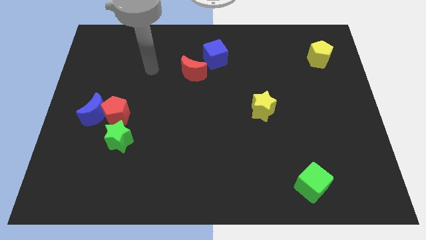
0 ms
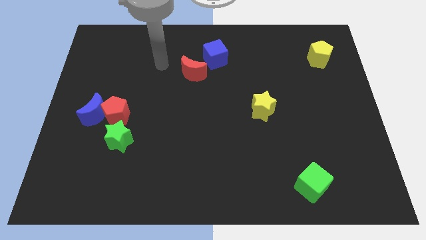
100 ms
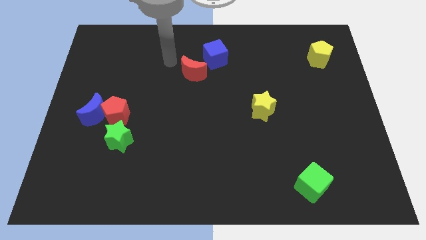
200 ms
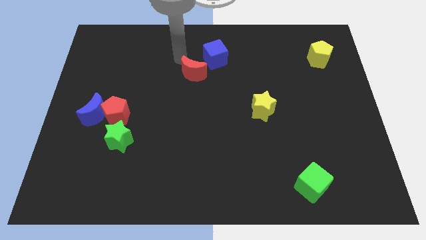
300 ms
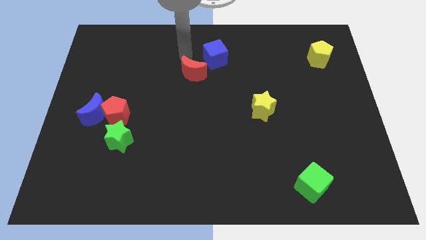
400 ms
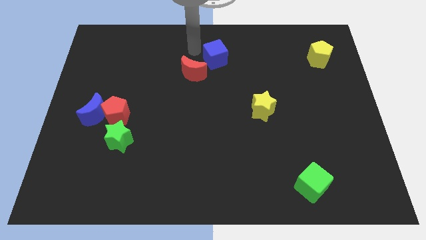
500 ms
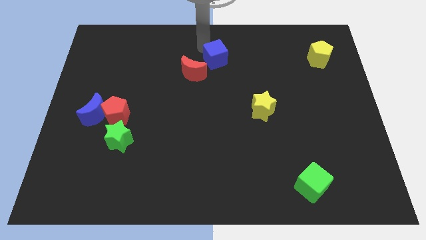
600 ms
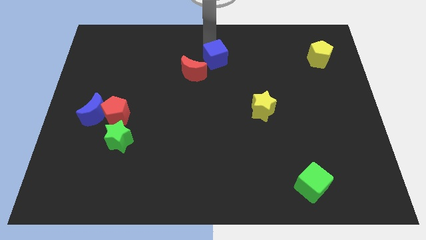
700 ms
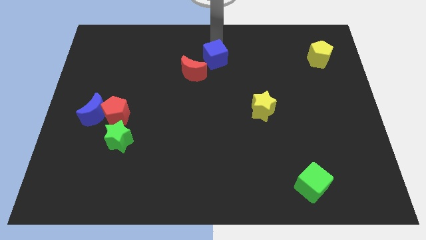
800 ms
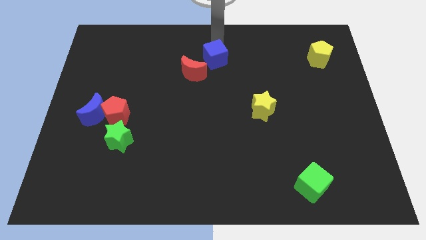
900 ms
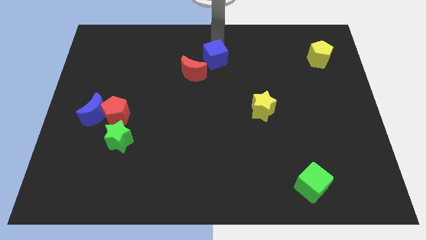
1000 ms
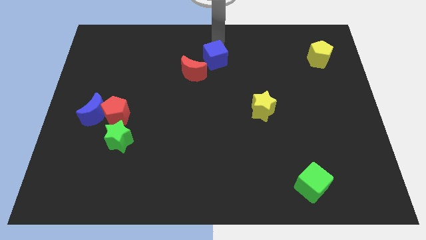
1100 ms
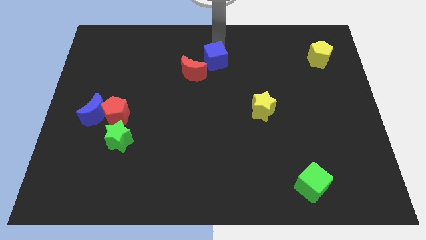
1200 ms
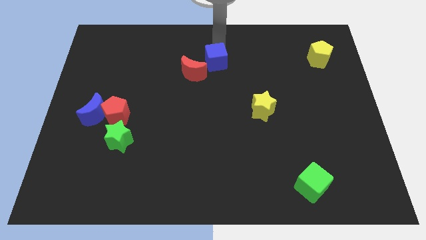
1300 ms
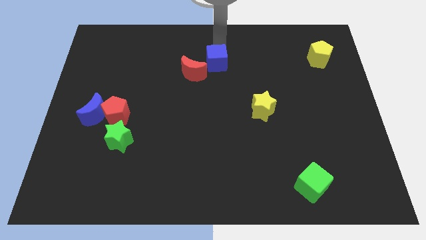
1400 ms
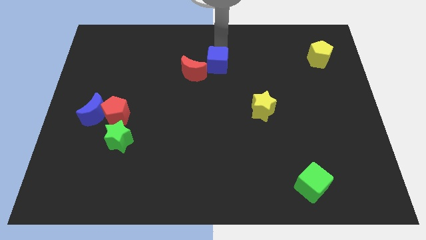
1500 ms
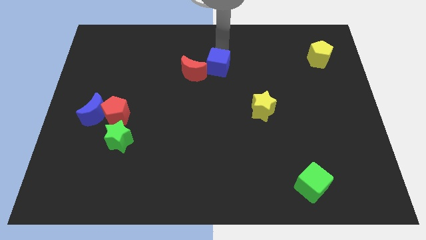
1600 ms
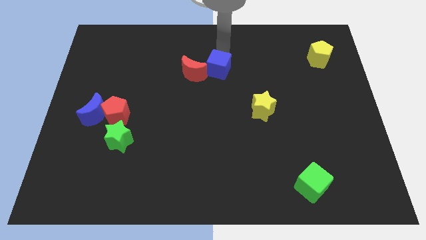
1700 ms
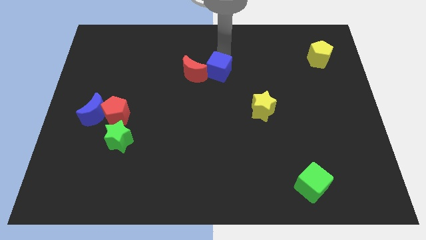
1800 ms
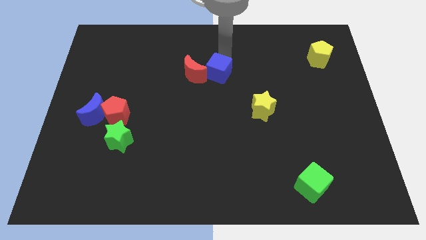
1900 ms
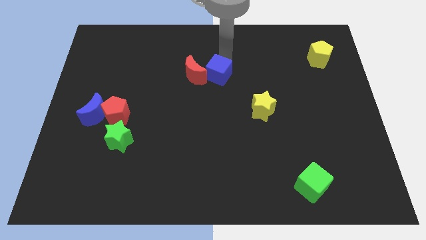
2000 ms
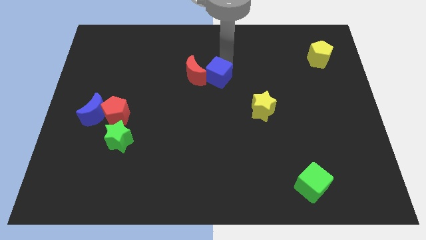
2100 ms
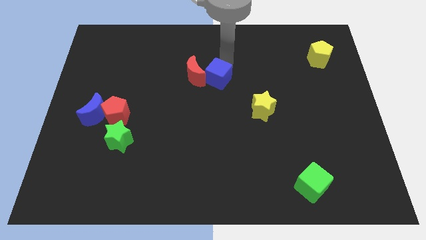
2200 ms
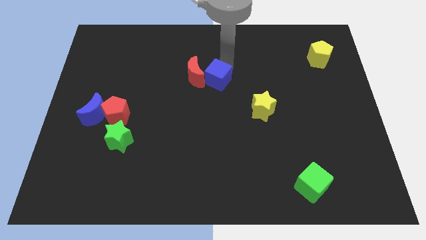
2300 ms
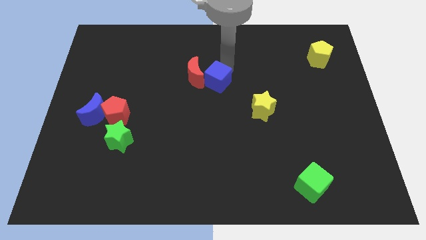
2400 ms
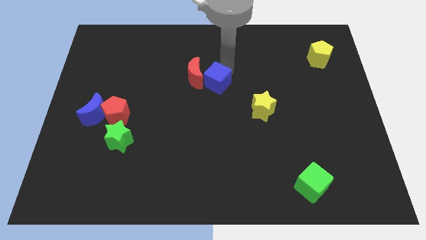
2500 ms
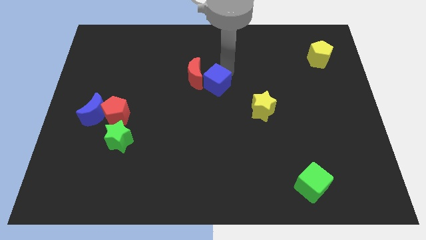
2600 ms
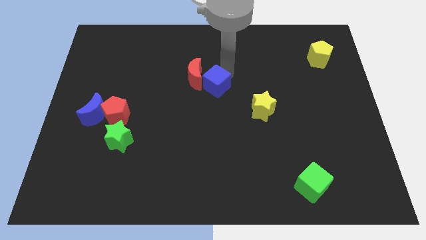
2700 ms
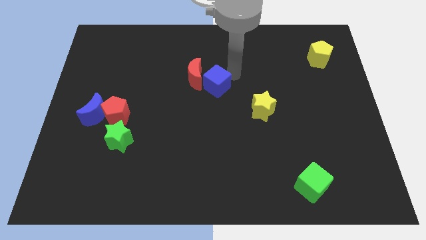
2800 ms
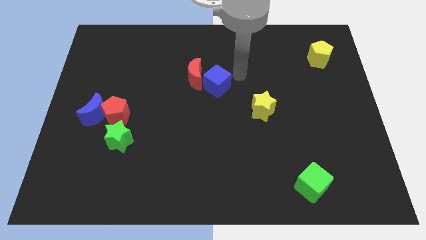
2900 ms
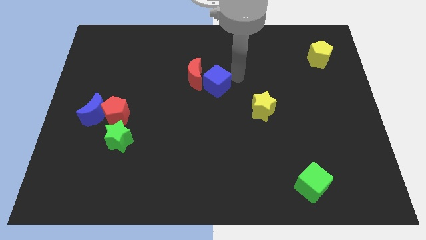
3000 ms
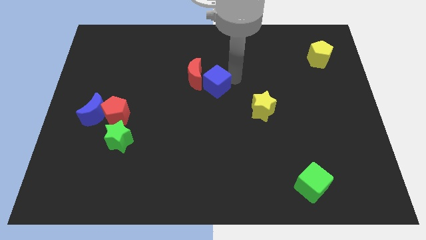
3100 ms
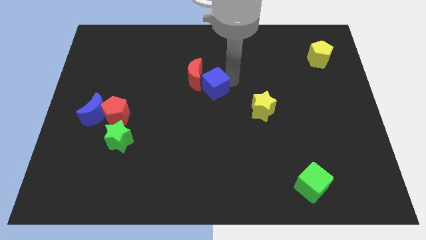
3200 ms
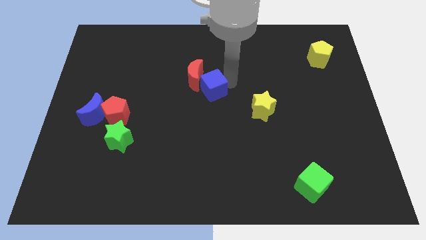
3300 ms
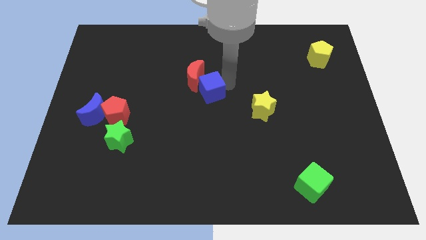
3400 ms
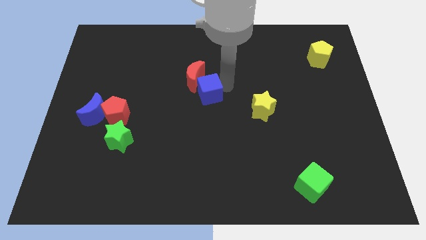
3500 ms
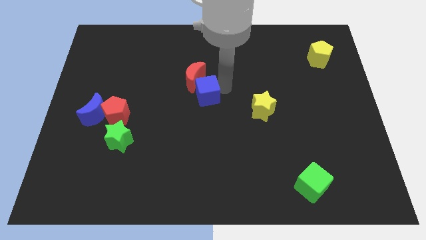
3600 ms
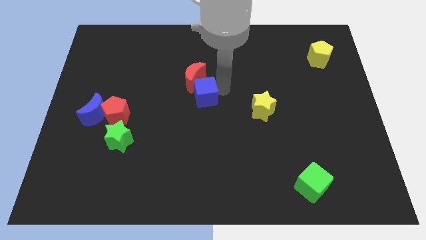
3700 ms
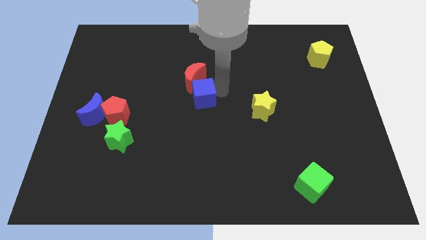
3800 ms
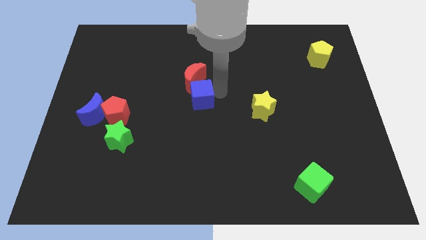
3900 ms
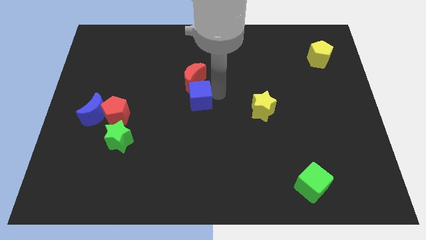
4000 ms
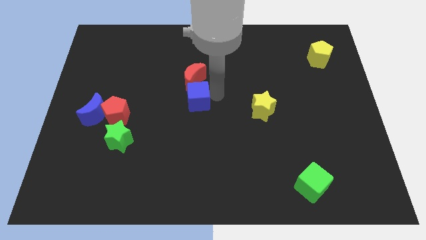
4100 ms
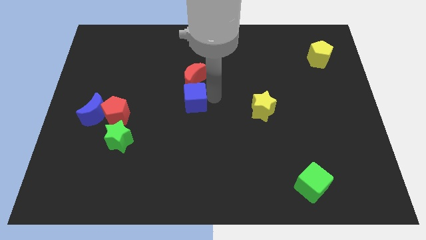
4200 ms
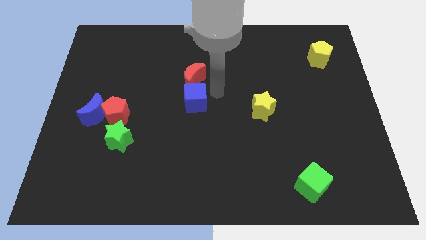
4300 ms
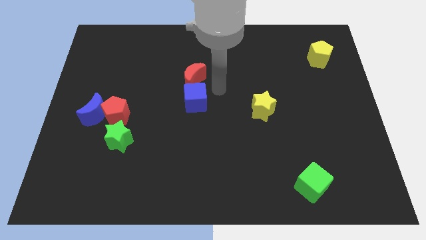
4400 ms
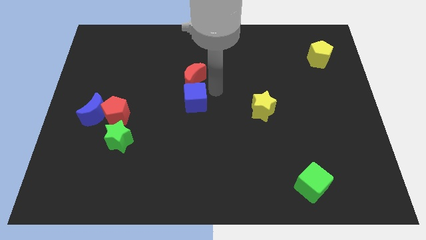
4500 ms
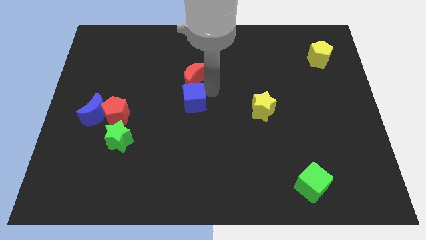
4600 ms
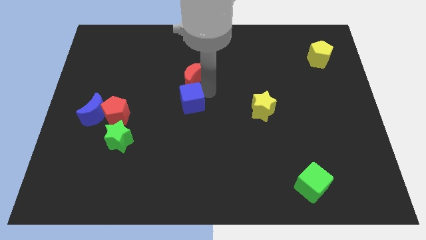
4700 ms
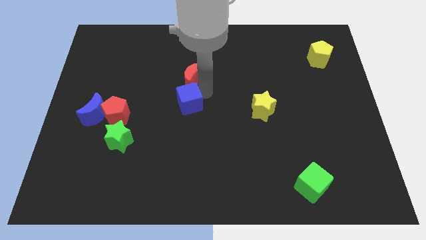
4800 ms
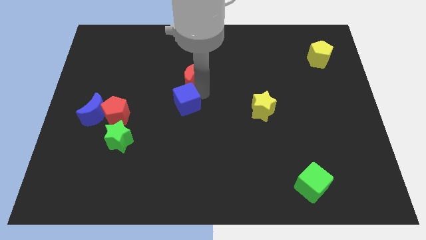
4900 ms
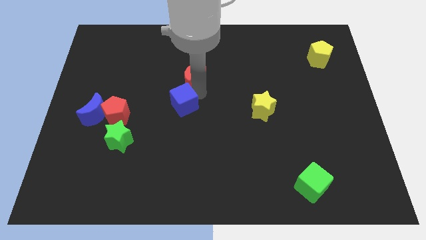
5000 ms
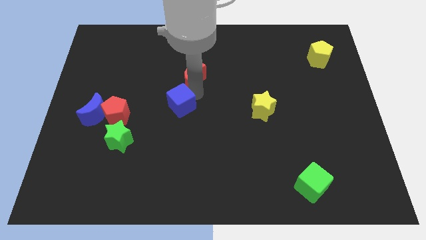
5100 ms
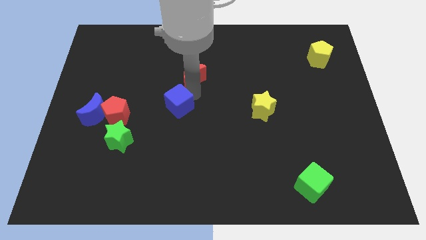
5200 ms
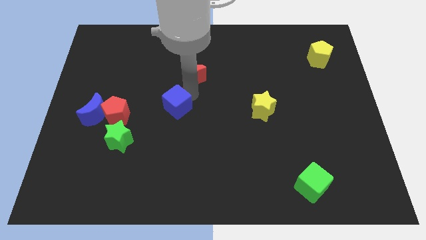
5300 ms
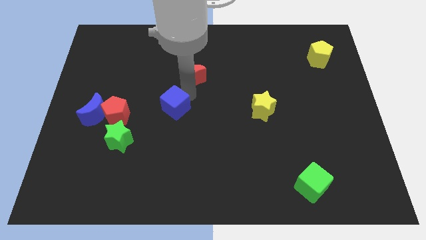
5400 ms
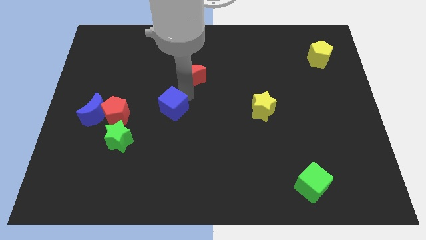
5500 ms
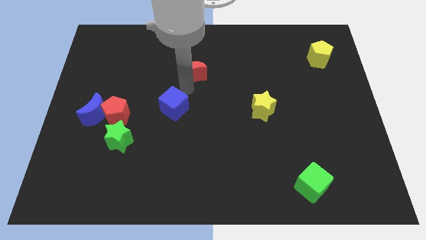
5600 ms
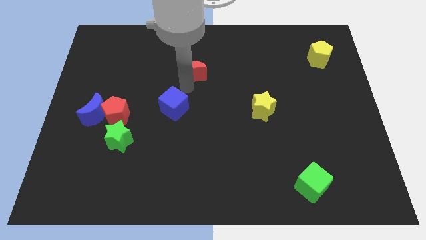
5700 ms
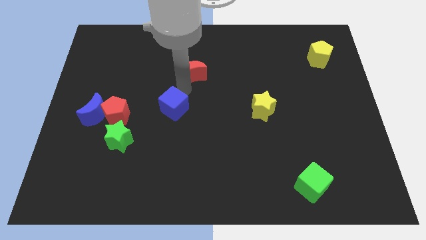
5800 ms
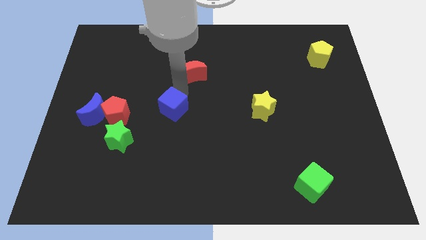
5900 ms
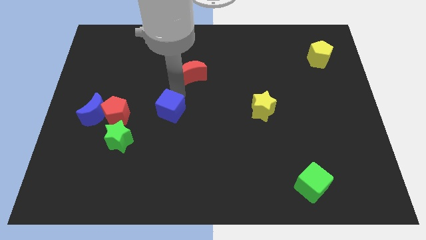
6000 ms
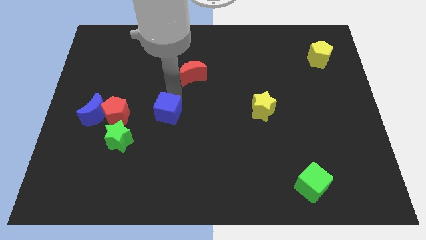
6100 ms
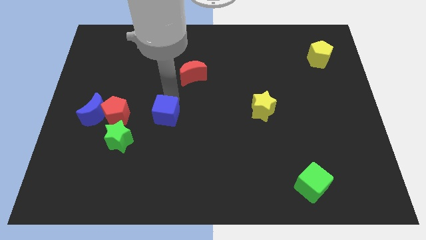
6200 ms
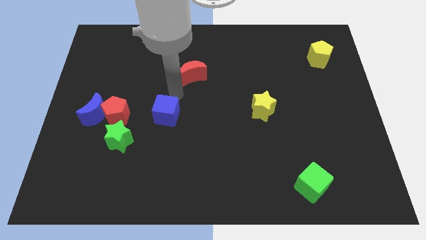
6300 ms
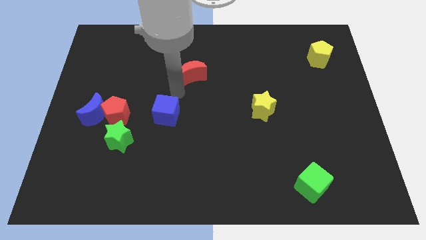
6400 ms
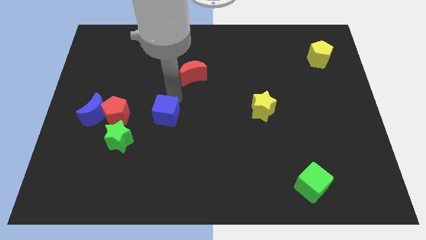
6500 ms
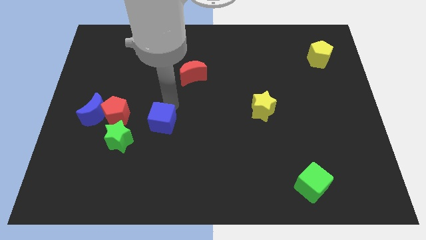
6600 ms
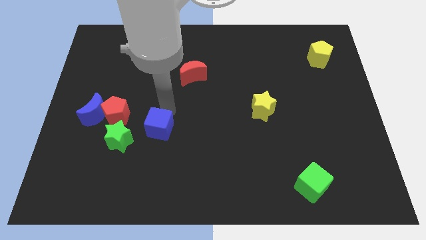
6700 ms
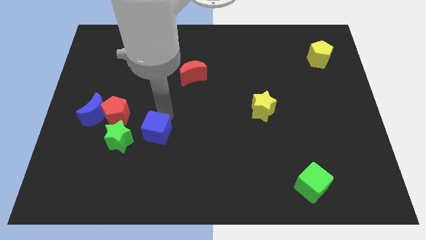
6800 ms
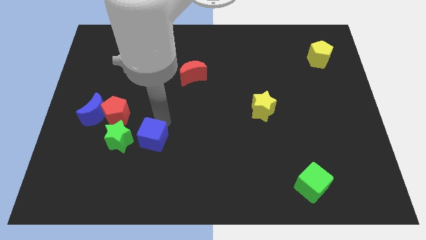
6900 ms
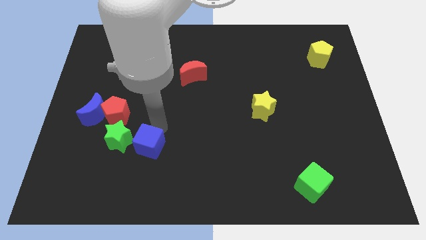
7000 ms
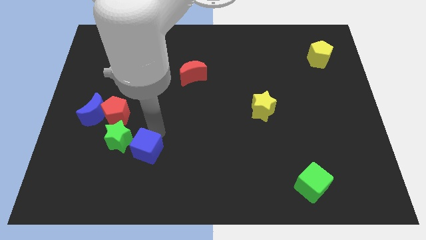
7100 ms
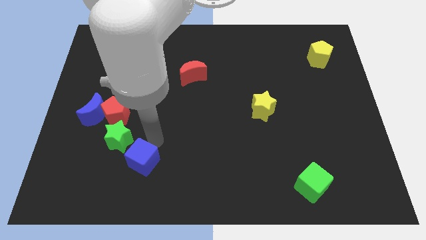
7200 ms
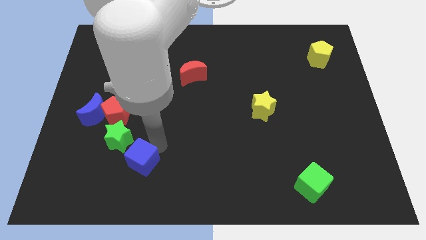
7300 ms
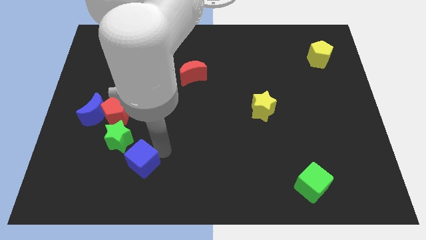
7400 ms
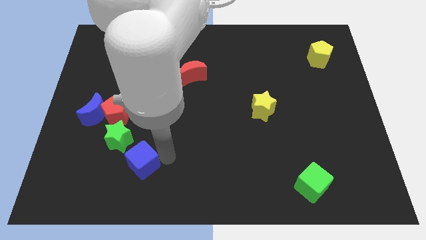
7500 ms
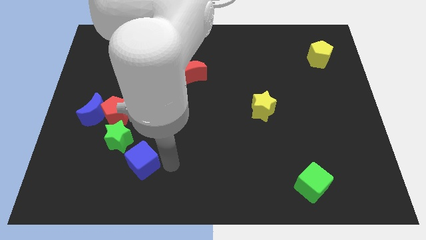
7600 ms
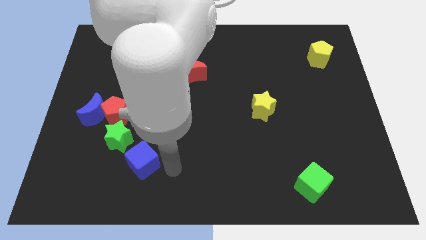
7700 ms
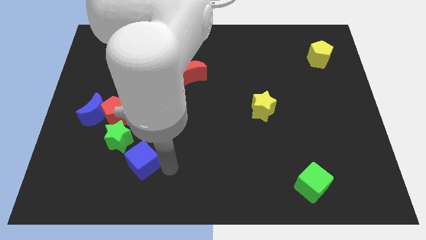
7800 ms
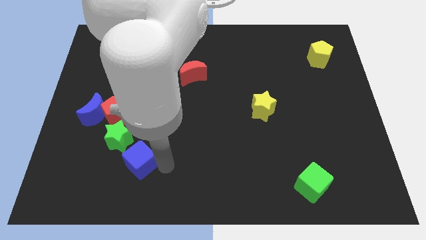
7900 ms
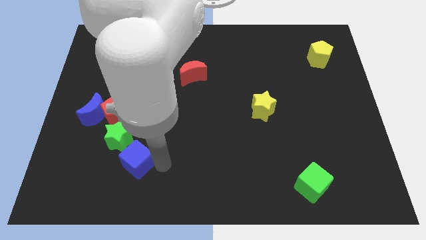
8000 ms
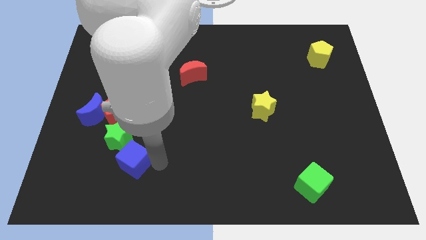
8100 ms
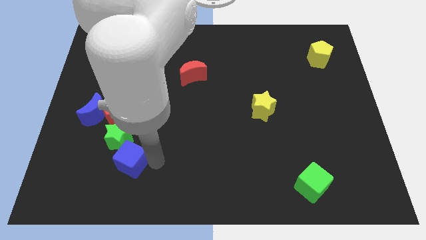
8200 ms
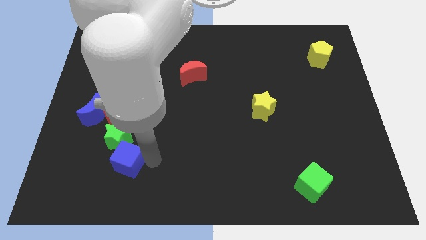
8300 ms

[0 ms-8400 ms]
put the blue cube below the red pentagon
